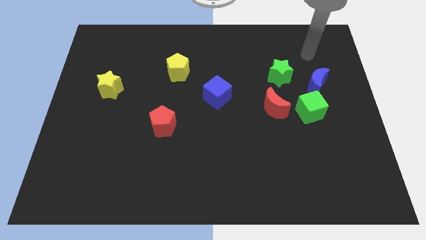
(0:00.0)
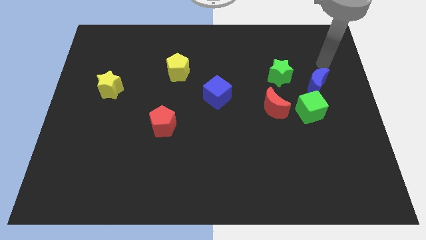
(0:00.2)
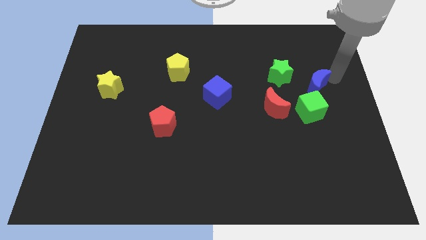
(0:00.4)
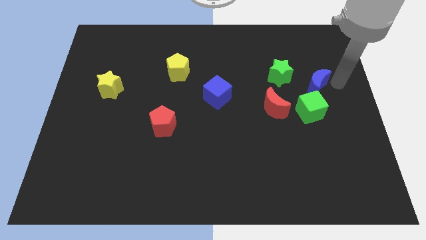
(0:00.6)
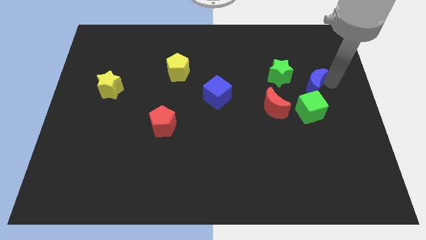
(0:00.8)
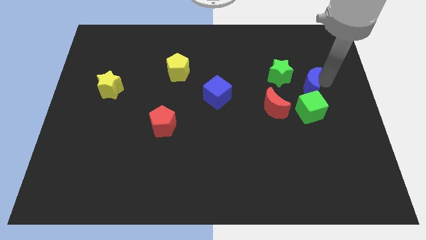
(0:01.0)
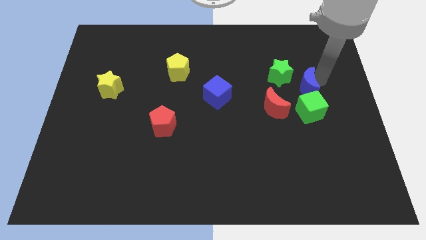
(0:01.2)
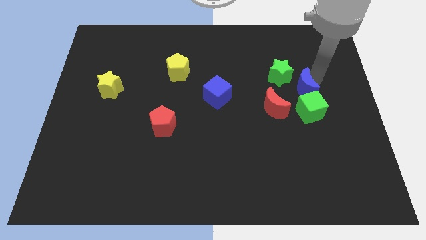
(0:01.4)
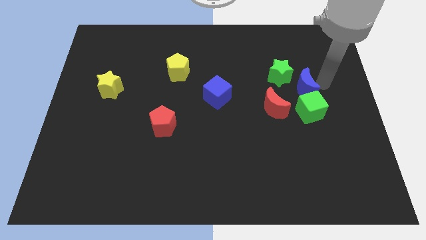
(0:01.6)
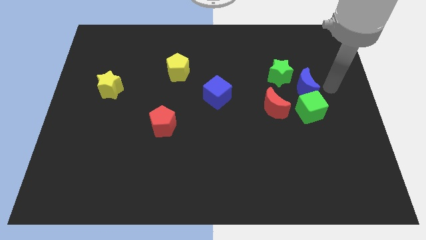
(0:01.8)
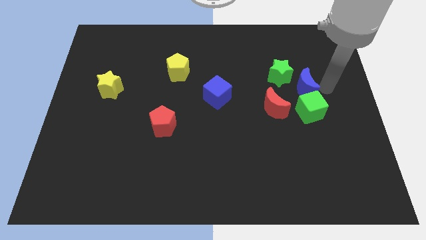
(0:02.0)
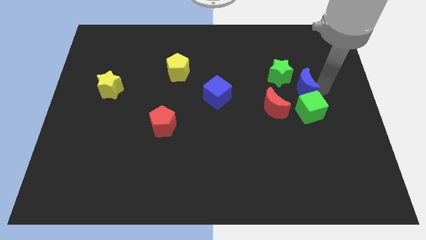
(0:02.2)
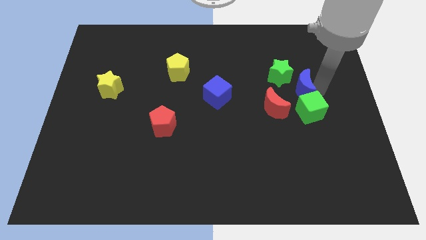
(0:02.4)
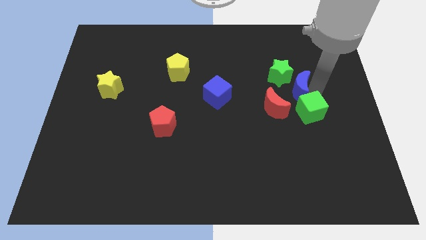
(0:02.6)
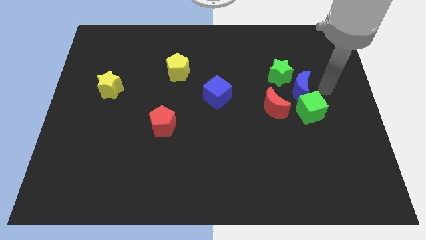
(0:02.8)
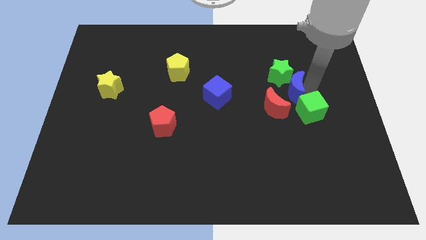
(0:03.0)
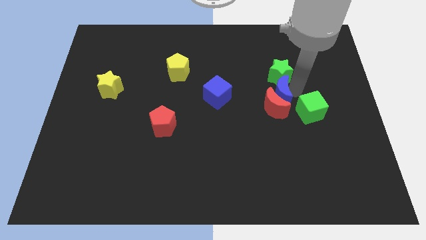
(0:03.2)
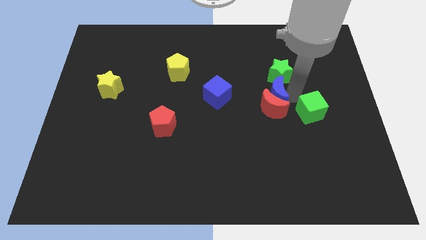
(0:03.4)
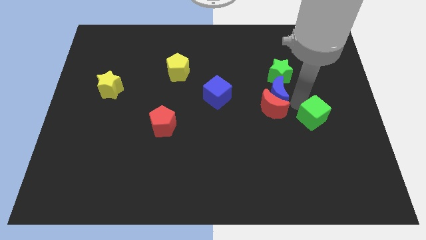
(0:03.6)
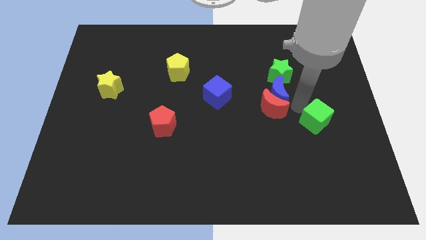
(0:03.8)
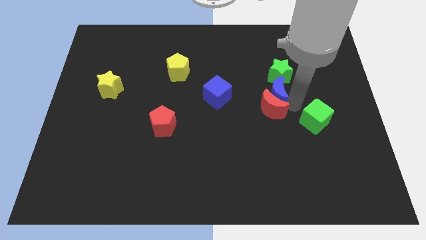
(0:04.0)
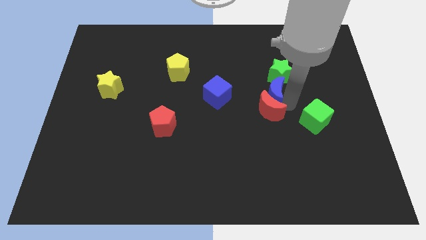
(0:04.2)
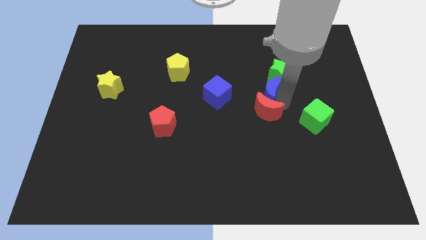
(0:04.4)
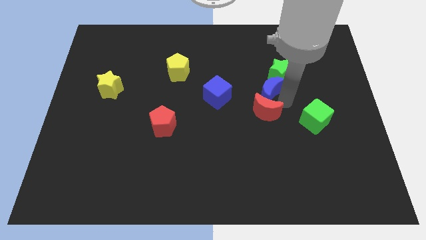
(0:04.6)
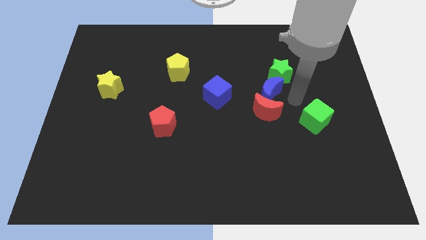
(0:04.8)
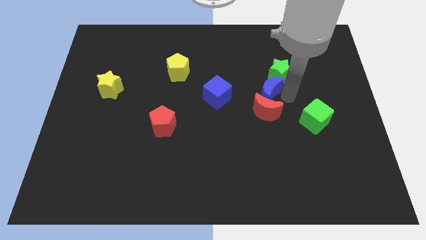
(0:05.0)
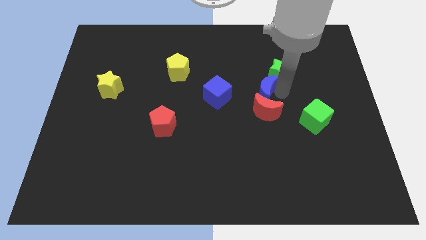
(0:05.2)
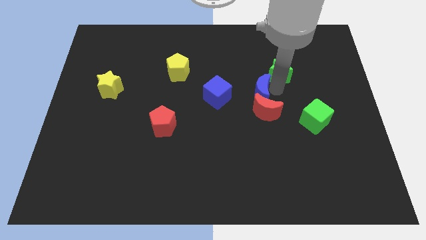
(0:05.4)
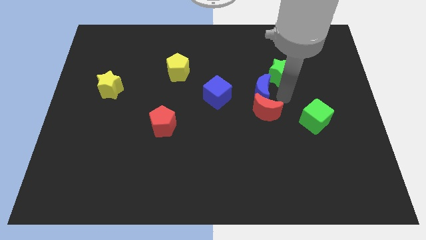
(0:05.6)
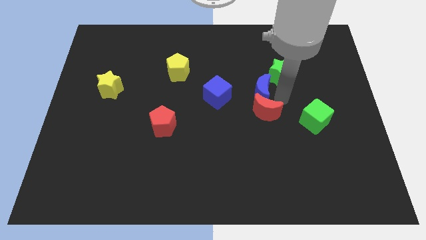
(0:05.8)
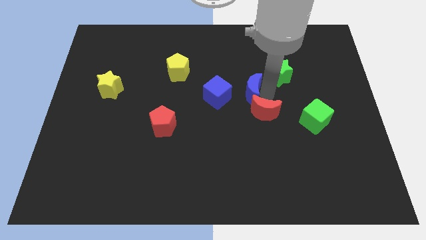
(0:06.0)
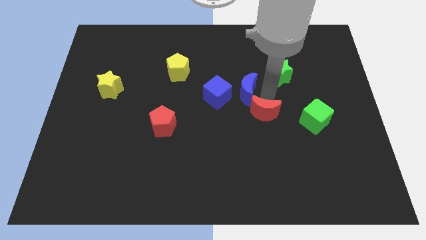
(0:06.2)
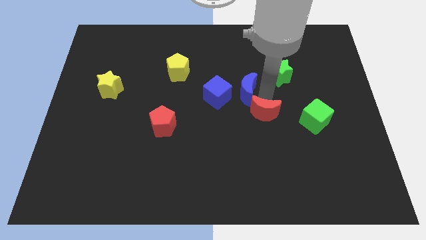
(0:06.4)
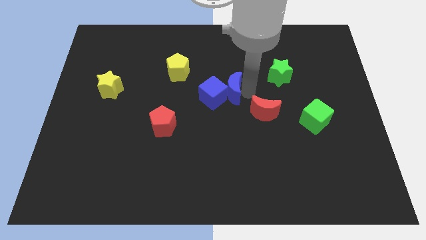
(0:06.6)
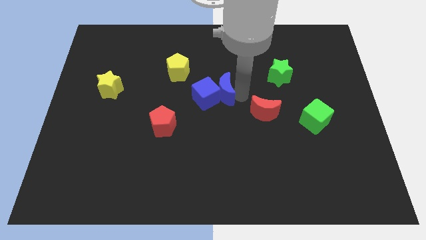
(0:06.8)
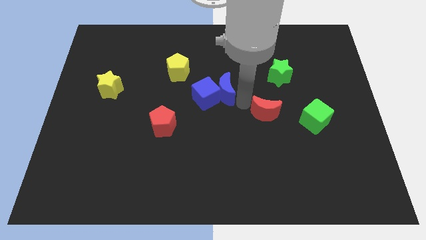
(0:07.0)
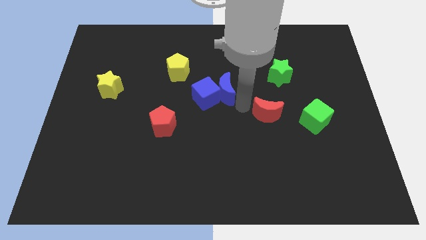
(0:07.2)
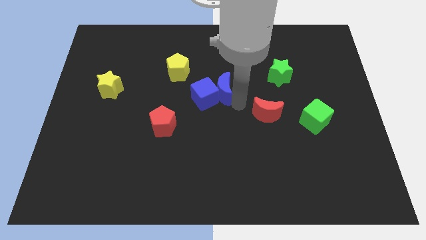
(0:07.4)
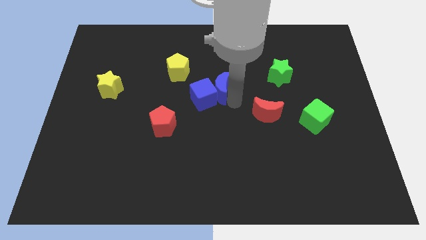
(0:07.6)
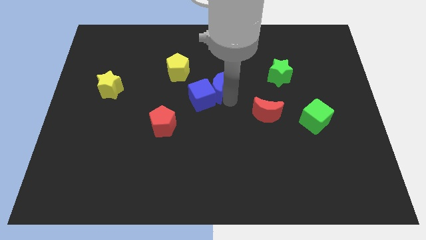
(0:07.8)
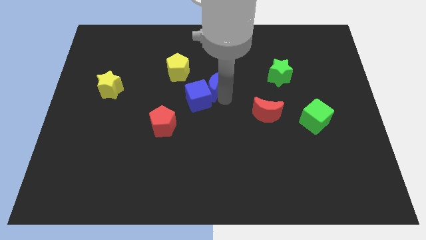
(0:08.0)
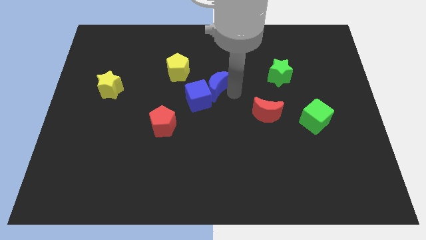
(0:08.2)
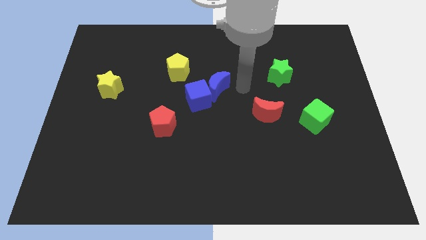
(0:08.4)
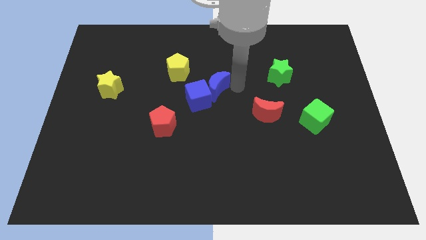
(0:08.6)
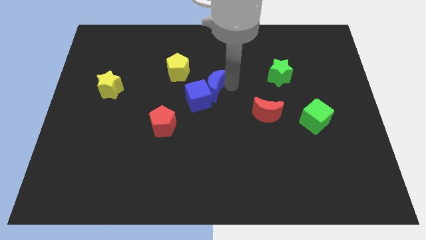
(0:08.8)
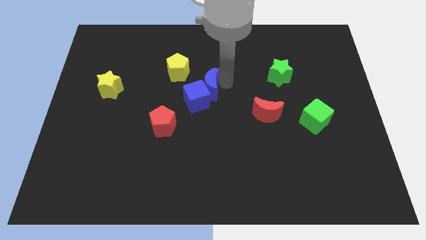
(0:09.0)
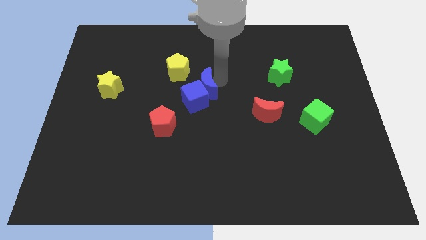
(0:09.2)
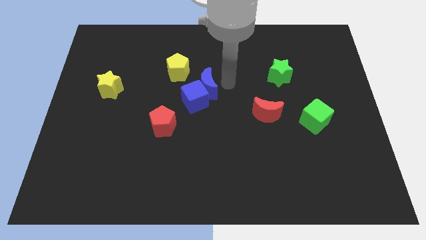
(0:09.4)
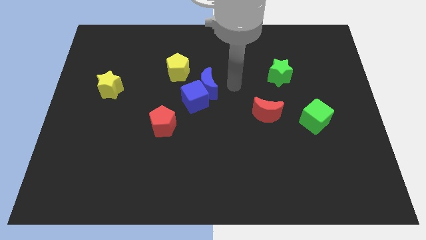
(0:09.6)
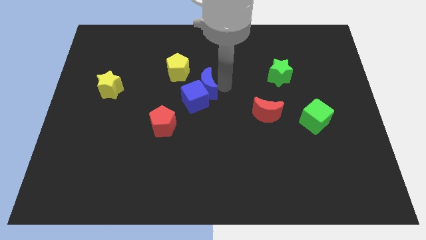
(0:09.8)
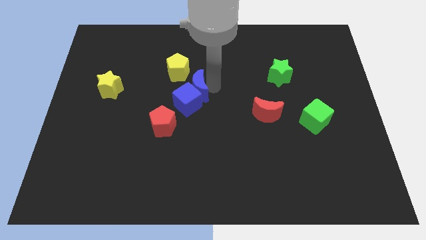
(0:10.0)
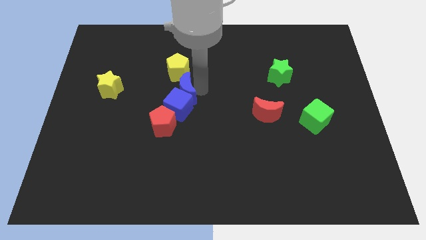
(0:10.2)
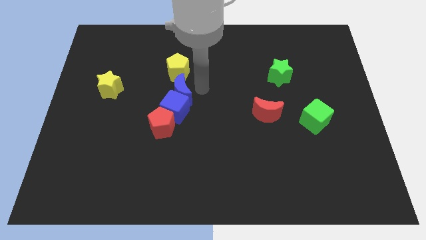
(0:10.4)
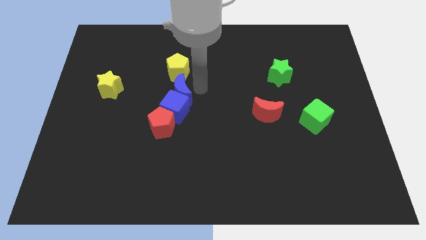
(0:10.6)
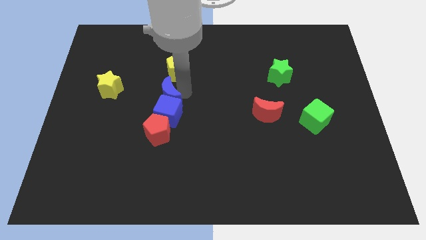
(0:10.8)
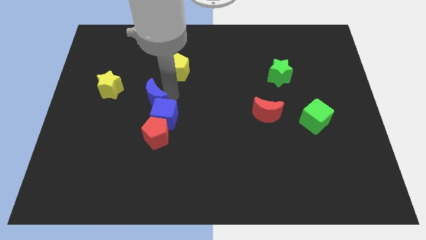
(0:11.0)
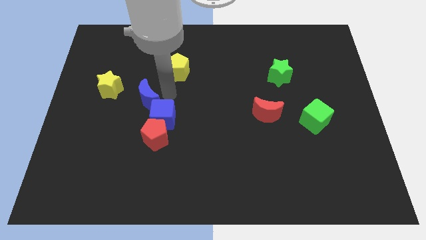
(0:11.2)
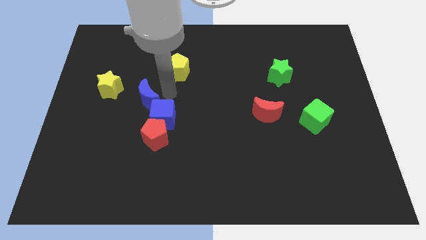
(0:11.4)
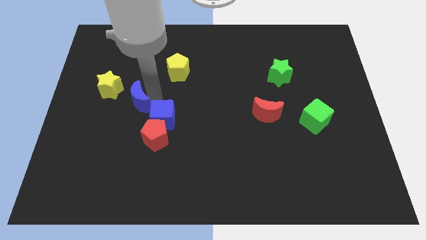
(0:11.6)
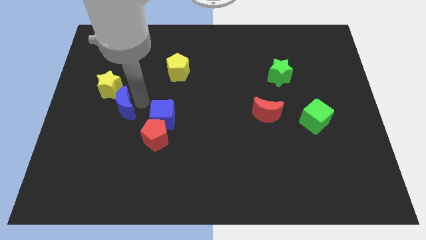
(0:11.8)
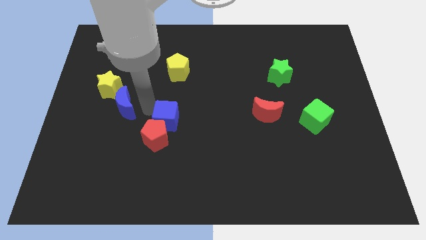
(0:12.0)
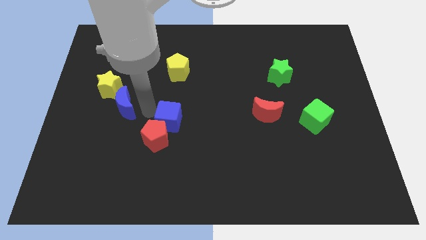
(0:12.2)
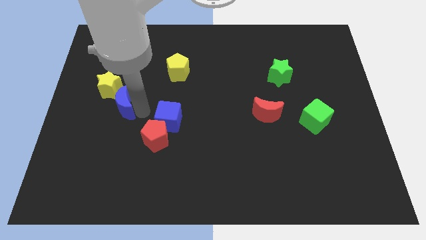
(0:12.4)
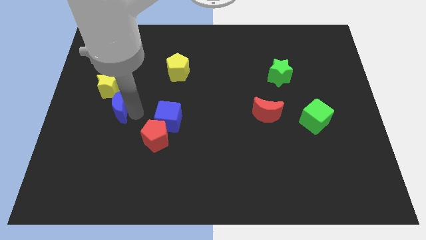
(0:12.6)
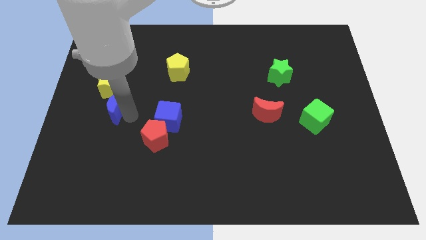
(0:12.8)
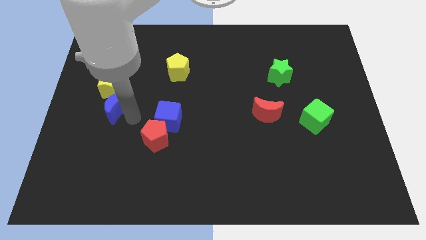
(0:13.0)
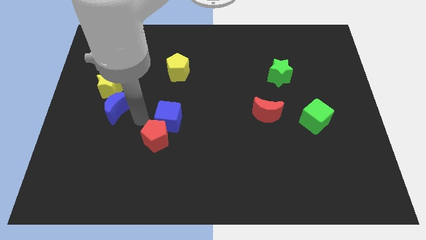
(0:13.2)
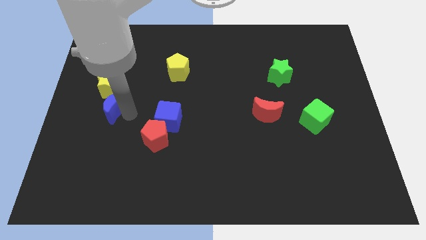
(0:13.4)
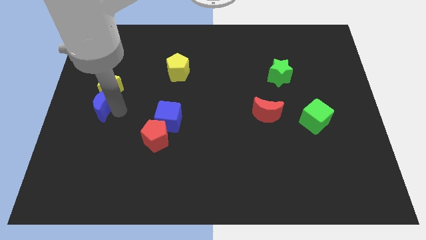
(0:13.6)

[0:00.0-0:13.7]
push the blue moon to the left side of the board
